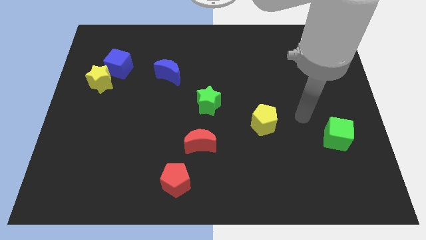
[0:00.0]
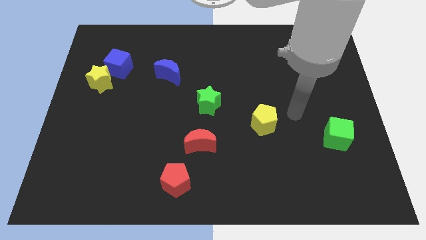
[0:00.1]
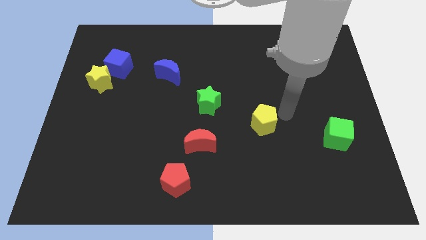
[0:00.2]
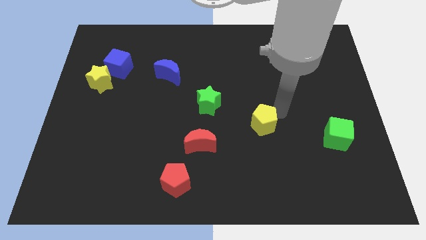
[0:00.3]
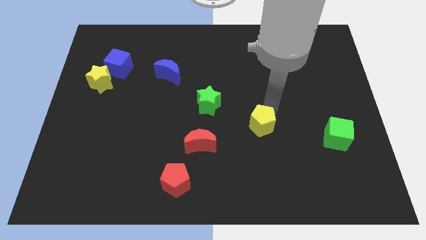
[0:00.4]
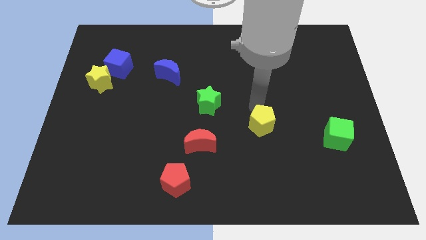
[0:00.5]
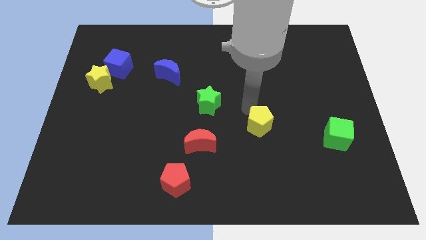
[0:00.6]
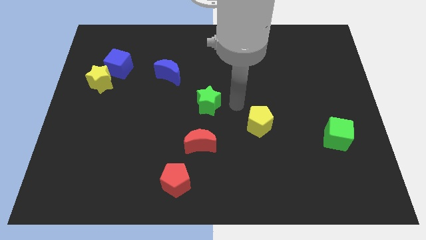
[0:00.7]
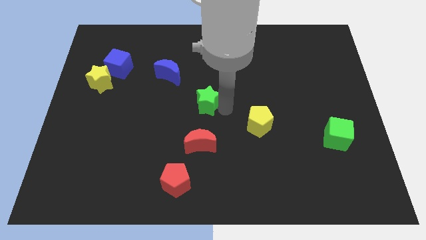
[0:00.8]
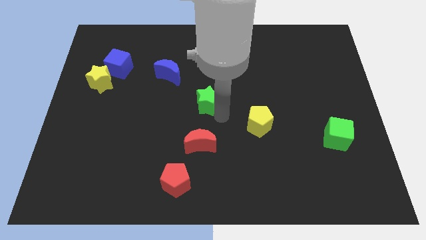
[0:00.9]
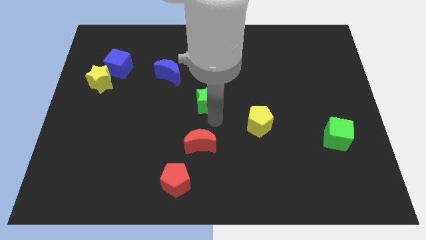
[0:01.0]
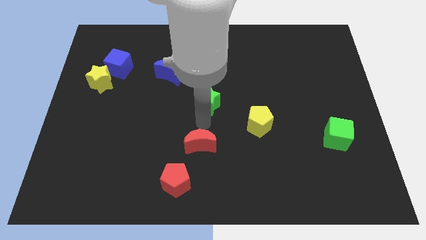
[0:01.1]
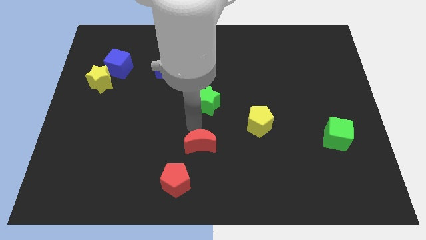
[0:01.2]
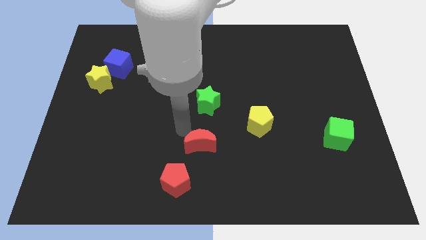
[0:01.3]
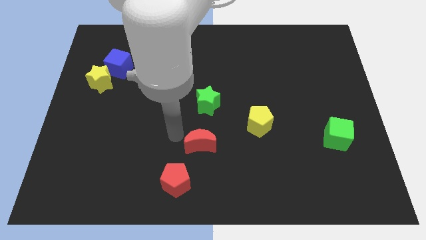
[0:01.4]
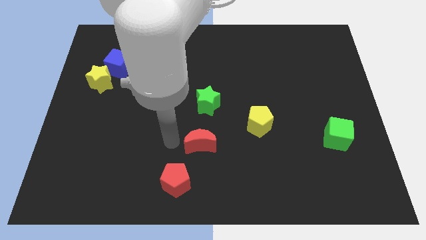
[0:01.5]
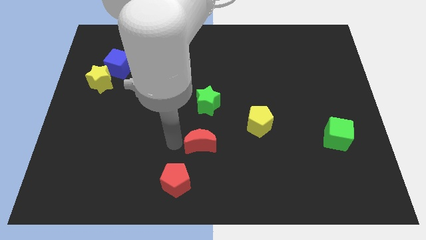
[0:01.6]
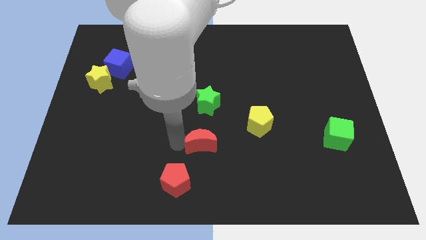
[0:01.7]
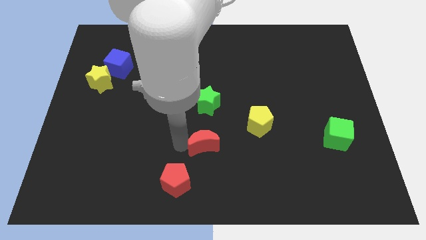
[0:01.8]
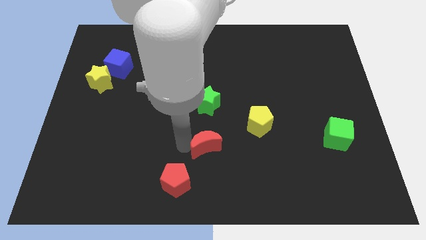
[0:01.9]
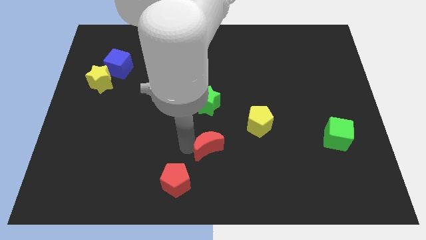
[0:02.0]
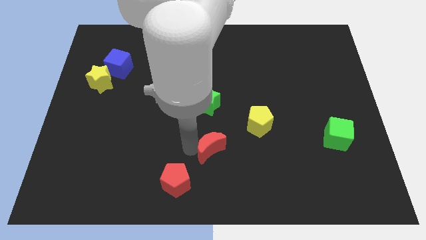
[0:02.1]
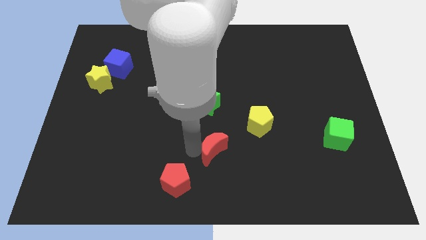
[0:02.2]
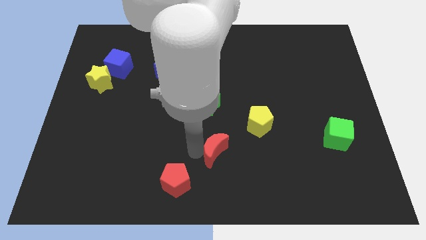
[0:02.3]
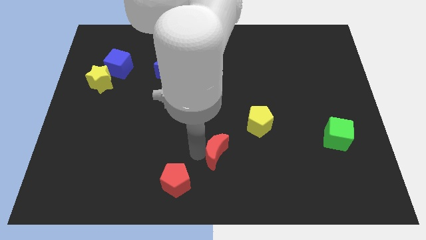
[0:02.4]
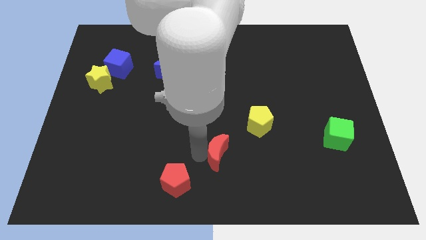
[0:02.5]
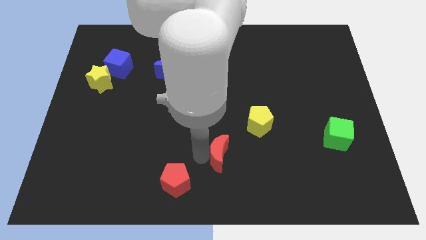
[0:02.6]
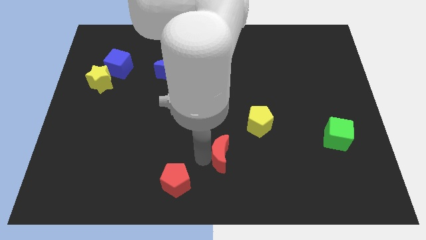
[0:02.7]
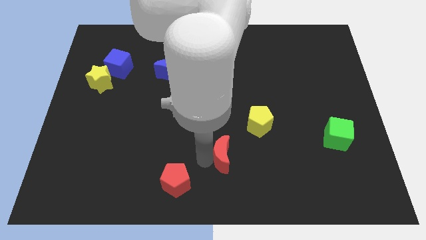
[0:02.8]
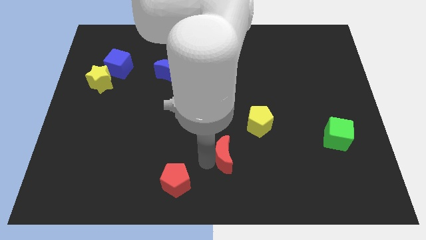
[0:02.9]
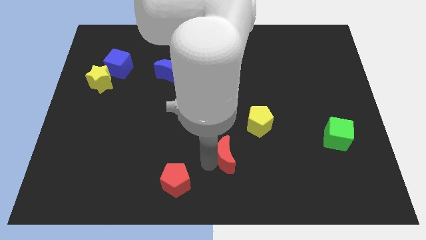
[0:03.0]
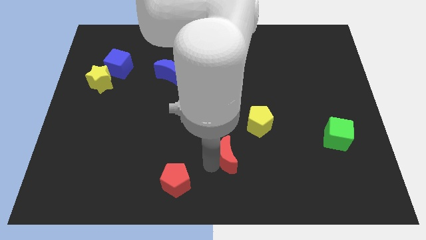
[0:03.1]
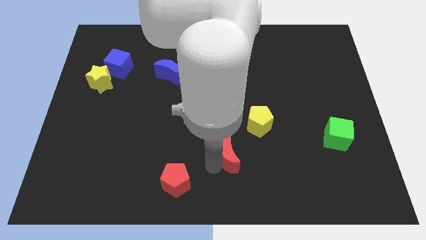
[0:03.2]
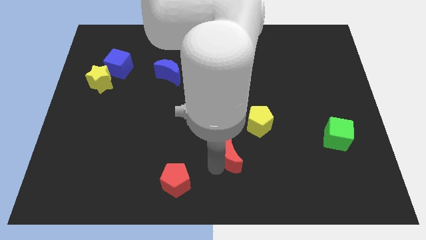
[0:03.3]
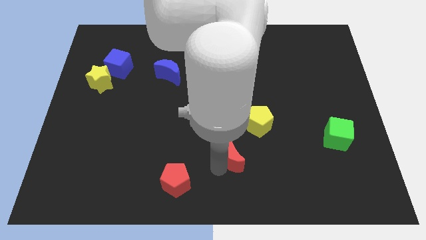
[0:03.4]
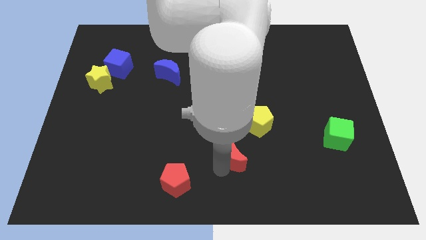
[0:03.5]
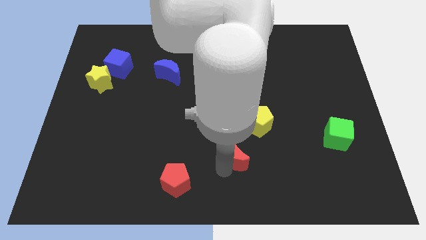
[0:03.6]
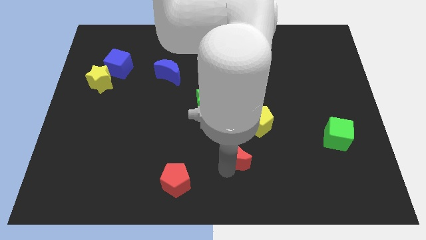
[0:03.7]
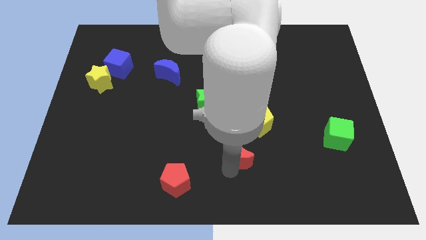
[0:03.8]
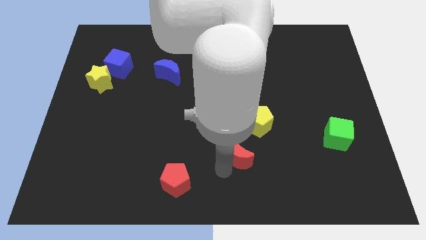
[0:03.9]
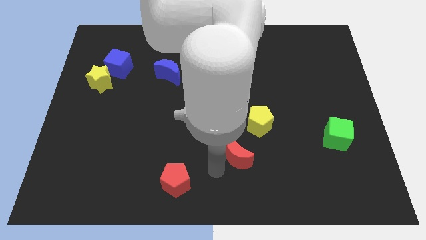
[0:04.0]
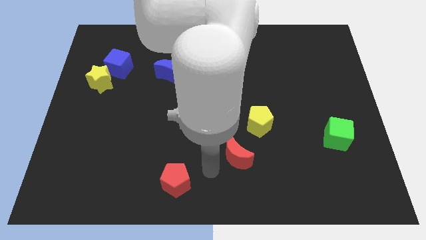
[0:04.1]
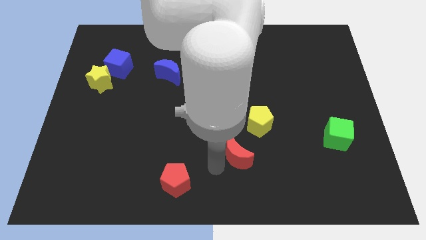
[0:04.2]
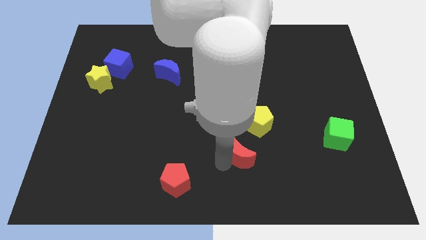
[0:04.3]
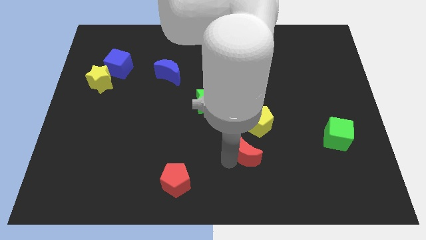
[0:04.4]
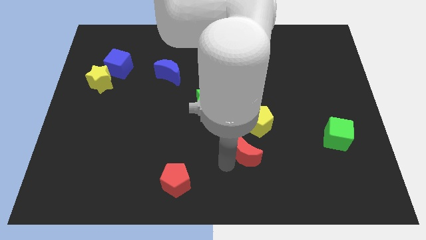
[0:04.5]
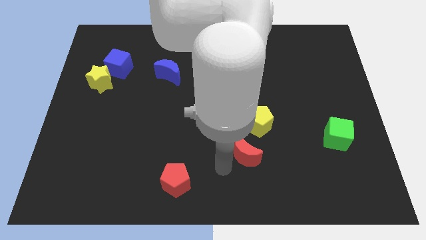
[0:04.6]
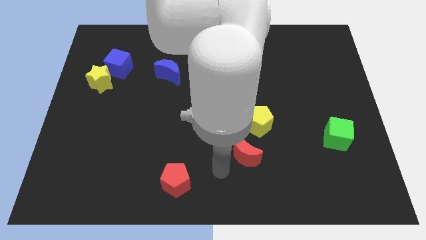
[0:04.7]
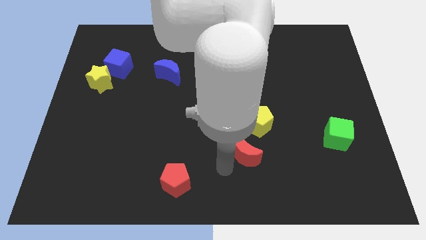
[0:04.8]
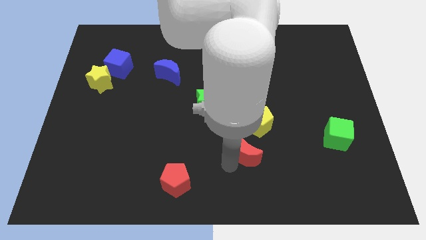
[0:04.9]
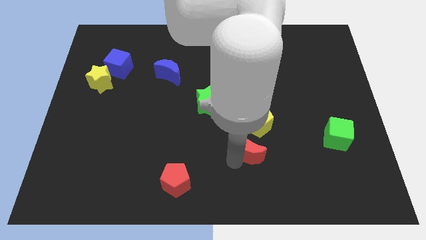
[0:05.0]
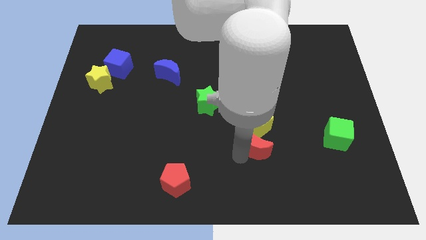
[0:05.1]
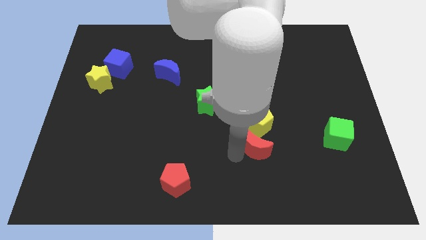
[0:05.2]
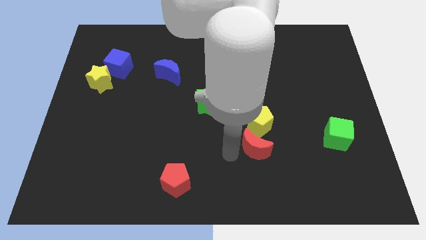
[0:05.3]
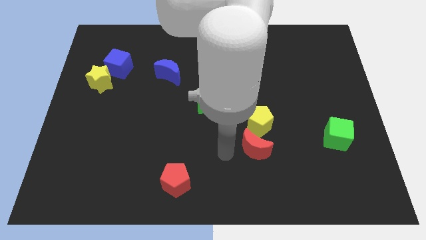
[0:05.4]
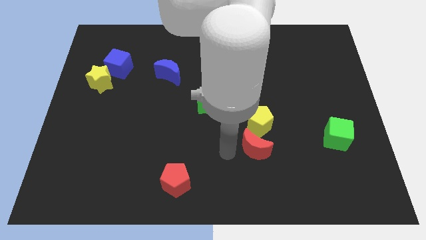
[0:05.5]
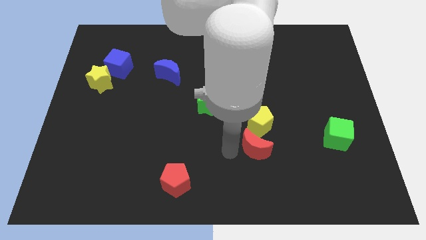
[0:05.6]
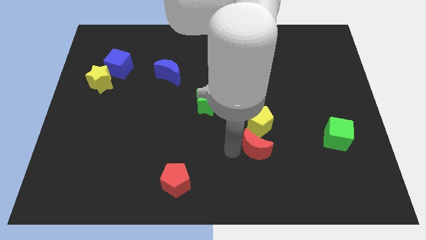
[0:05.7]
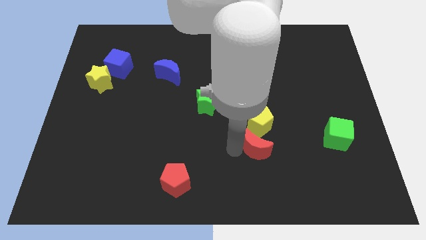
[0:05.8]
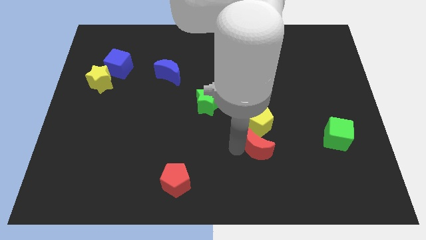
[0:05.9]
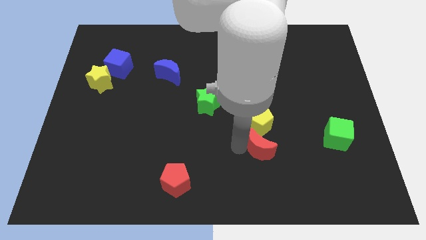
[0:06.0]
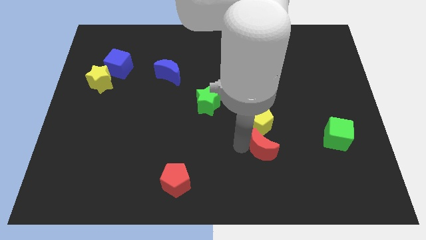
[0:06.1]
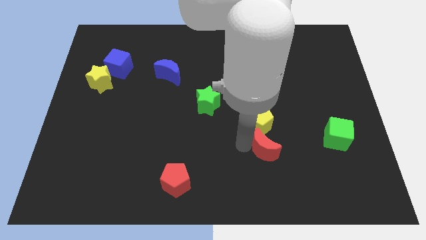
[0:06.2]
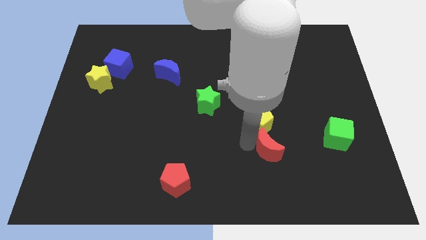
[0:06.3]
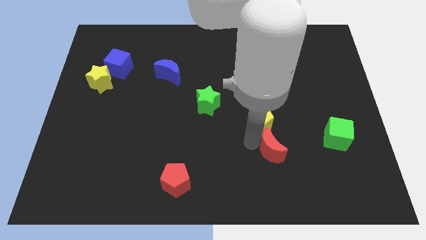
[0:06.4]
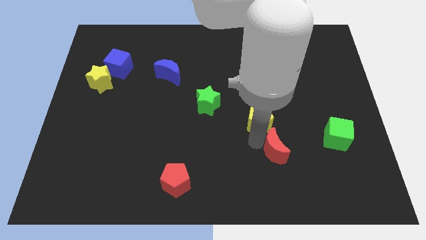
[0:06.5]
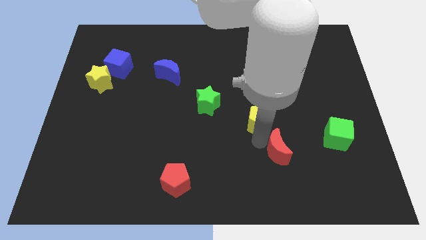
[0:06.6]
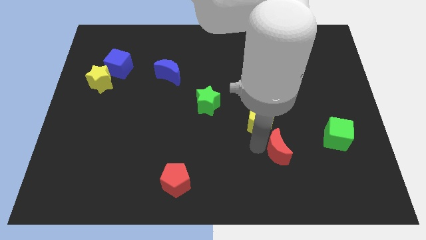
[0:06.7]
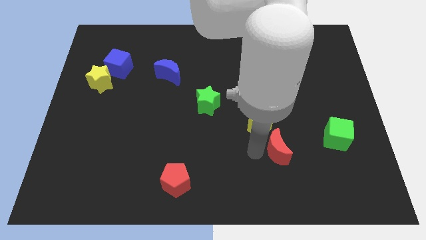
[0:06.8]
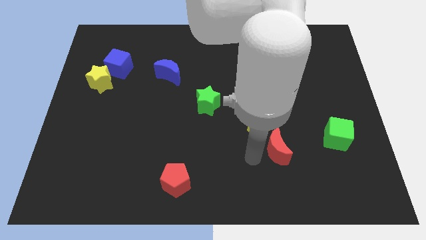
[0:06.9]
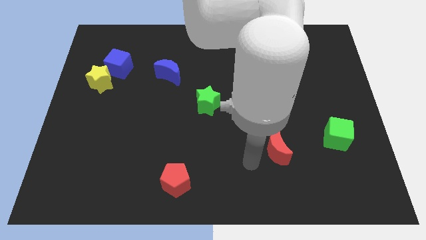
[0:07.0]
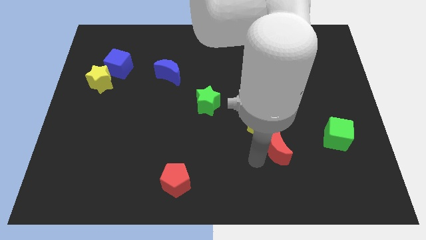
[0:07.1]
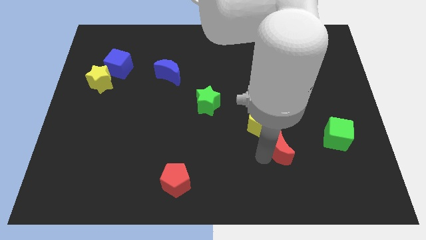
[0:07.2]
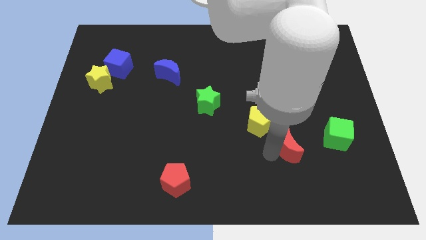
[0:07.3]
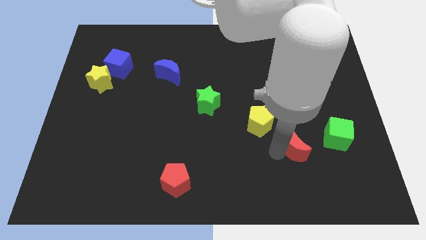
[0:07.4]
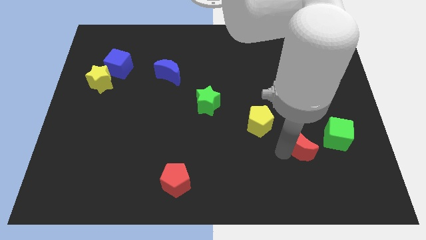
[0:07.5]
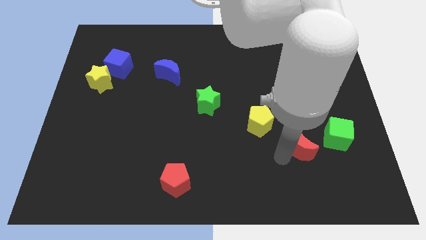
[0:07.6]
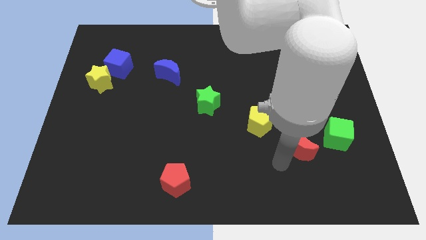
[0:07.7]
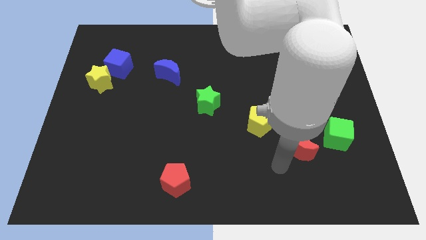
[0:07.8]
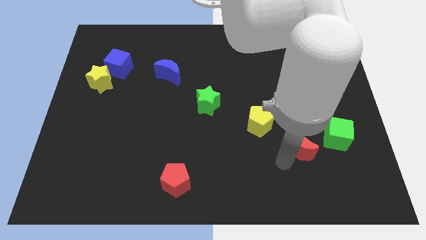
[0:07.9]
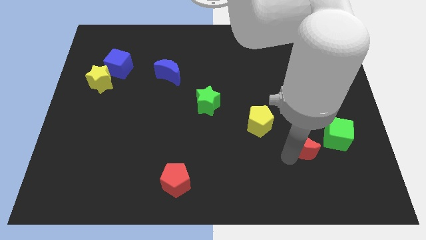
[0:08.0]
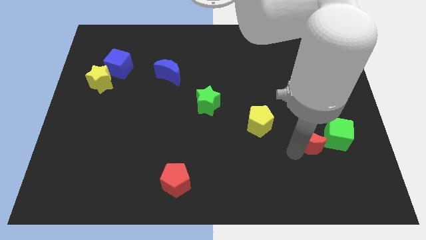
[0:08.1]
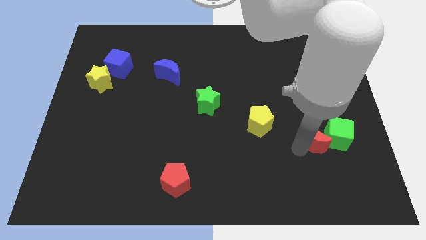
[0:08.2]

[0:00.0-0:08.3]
put the red moon close to the green cube
